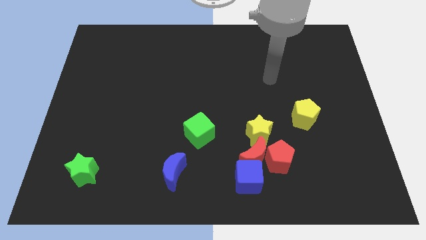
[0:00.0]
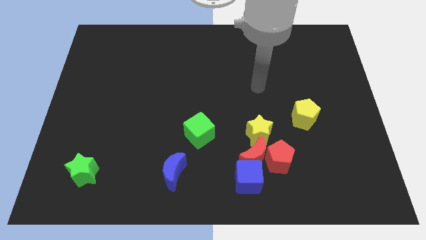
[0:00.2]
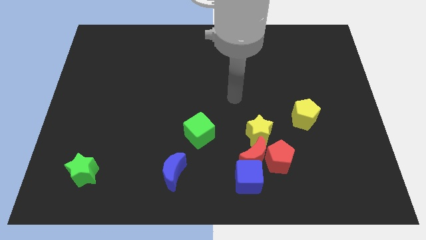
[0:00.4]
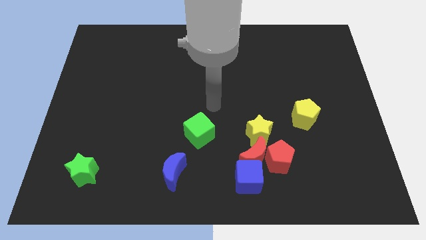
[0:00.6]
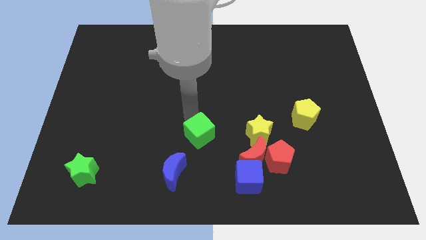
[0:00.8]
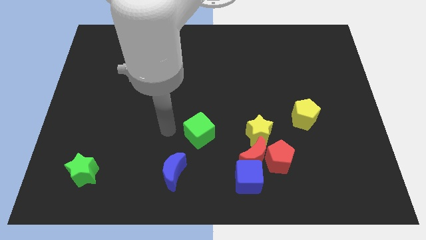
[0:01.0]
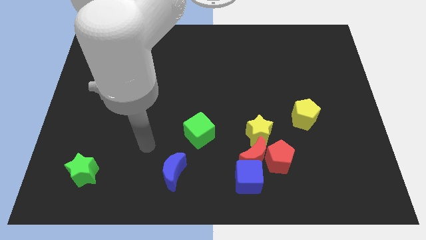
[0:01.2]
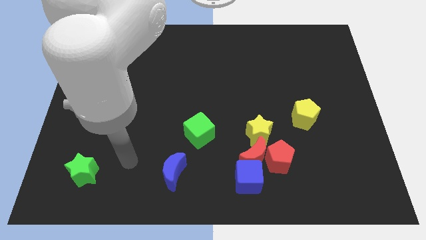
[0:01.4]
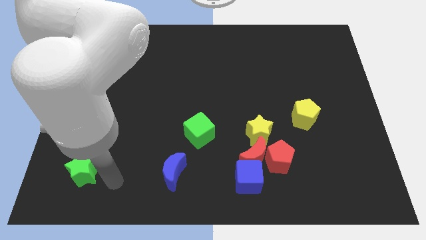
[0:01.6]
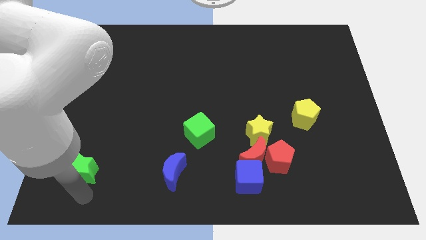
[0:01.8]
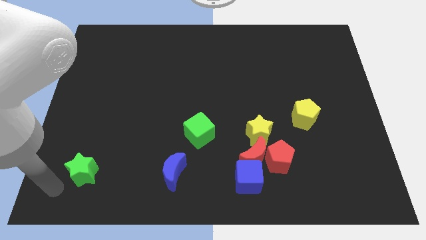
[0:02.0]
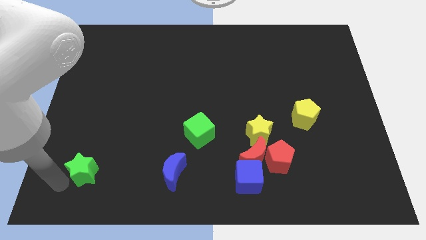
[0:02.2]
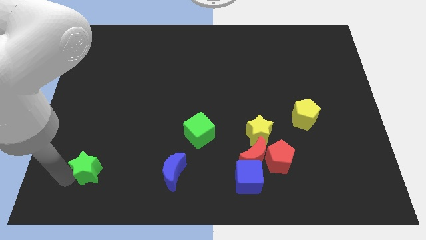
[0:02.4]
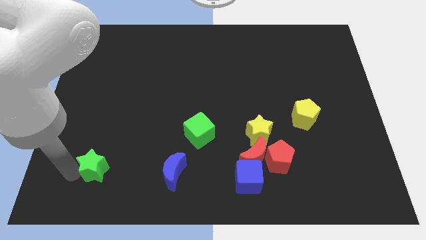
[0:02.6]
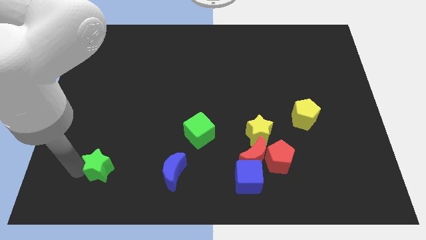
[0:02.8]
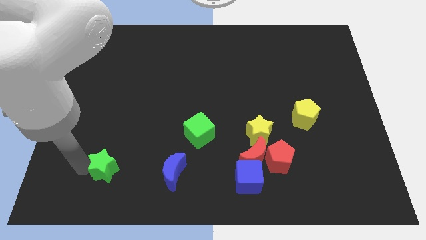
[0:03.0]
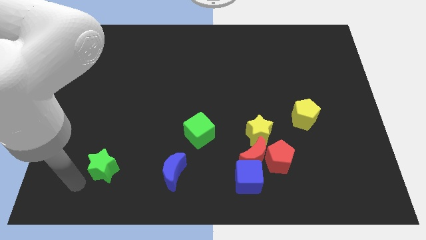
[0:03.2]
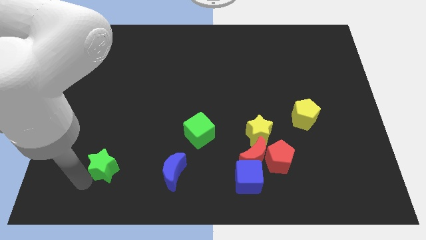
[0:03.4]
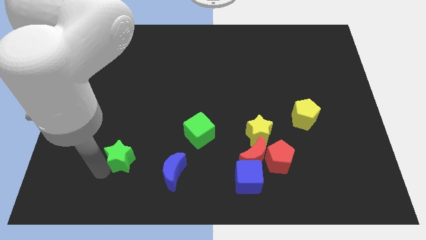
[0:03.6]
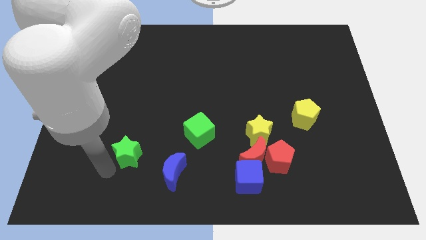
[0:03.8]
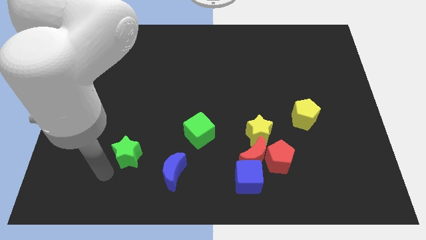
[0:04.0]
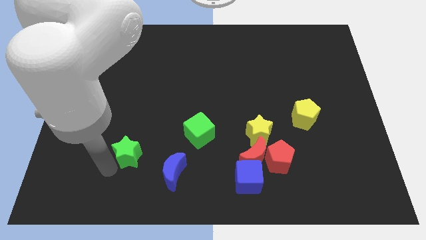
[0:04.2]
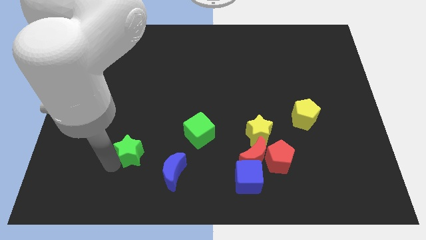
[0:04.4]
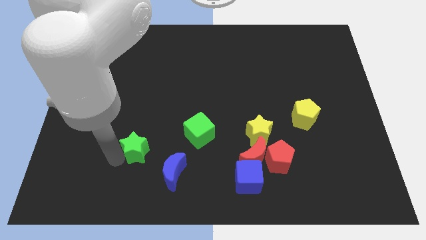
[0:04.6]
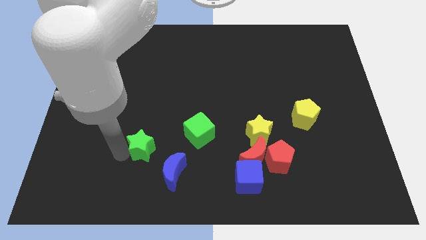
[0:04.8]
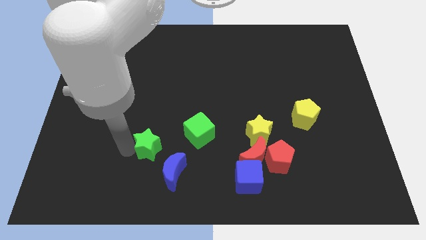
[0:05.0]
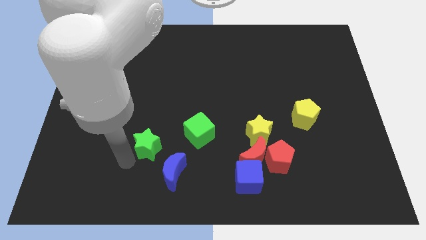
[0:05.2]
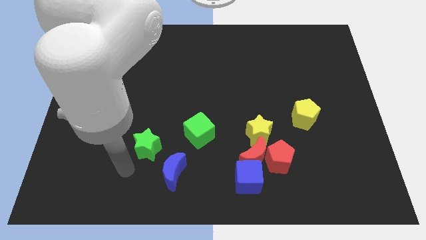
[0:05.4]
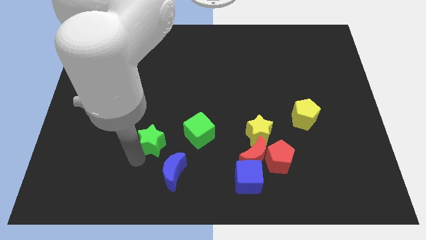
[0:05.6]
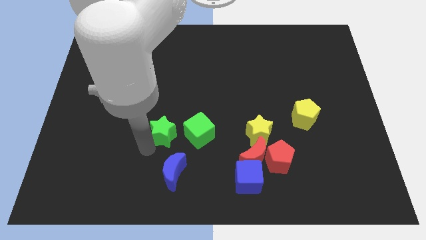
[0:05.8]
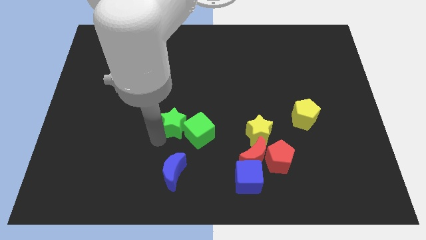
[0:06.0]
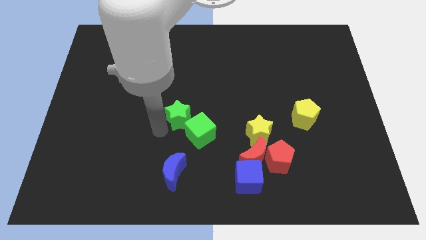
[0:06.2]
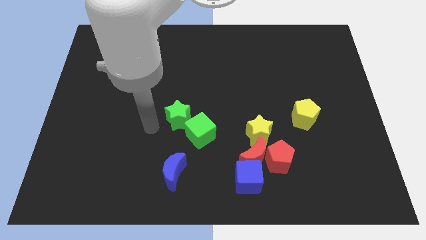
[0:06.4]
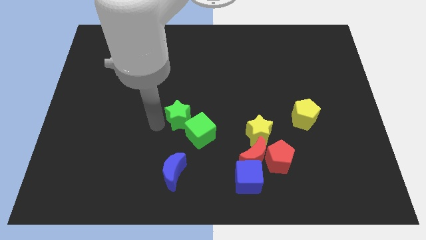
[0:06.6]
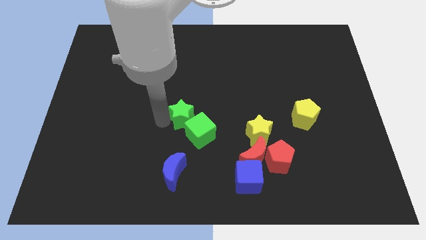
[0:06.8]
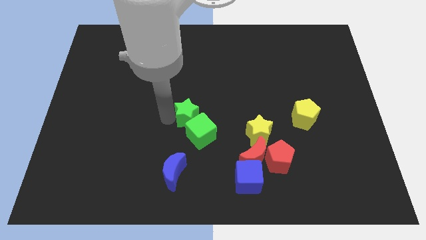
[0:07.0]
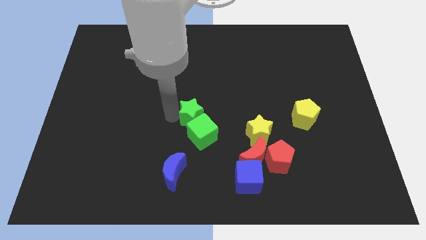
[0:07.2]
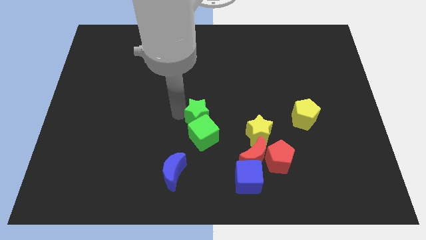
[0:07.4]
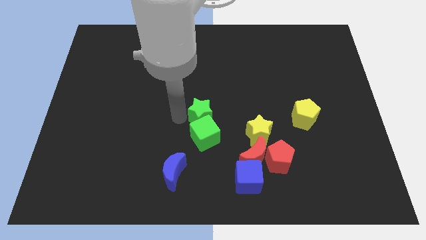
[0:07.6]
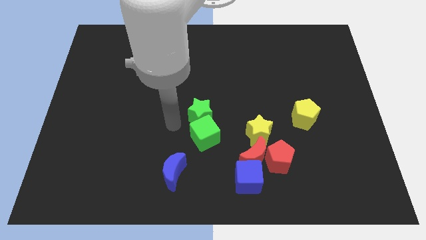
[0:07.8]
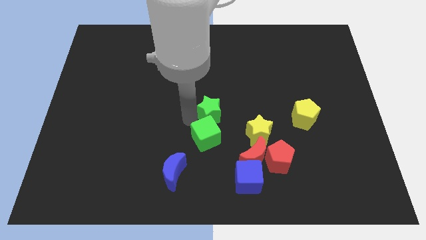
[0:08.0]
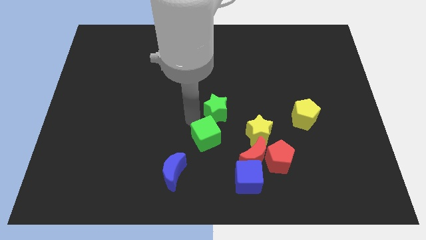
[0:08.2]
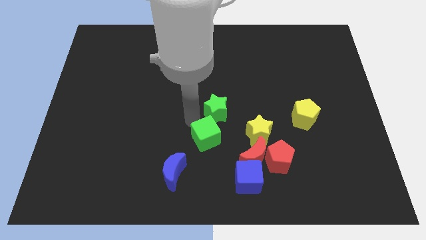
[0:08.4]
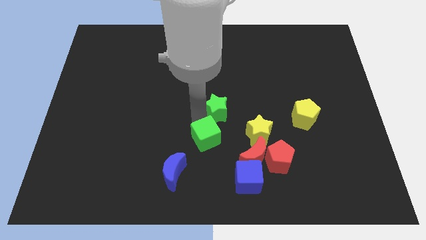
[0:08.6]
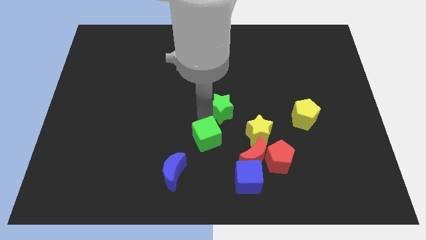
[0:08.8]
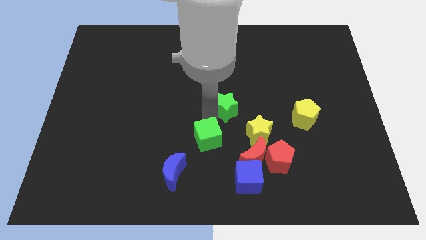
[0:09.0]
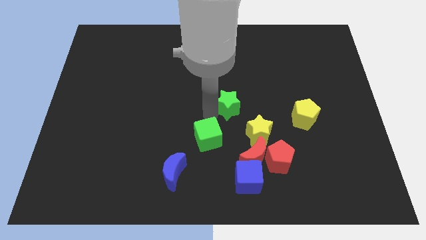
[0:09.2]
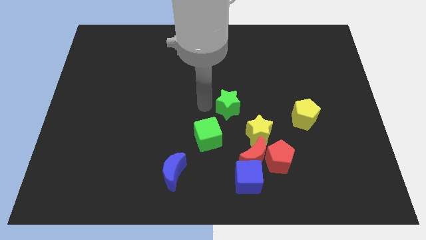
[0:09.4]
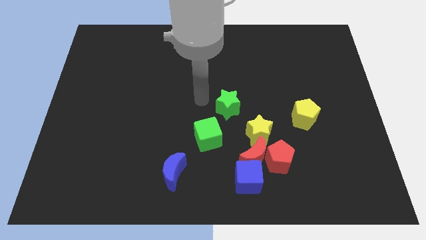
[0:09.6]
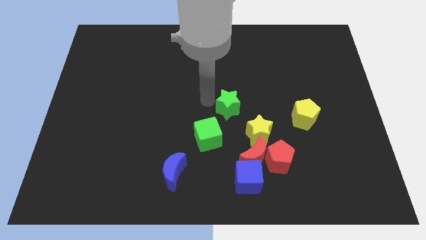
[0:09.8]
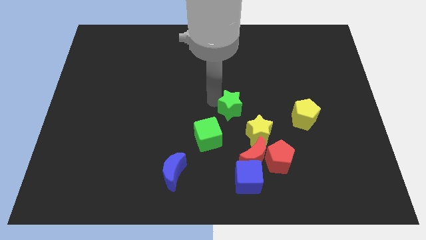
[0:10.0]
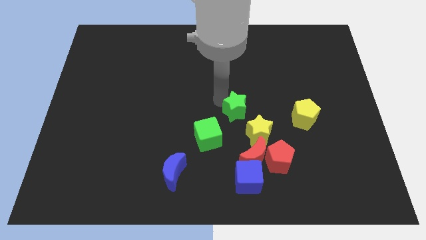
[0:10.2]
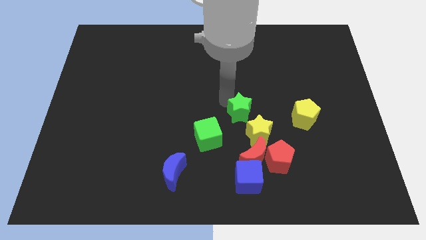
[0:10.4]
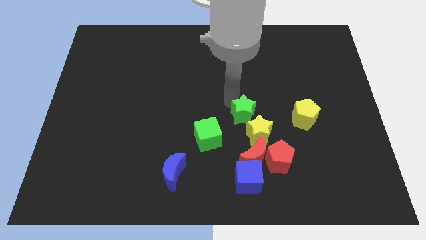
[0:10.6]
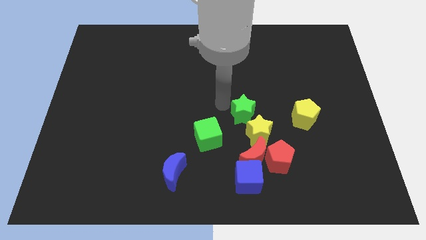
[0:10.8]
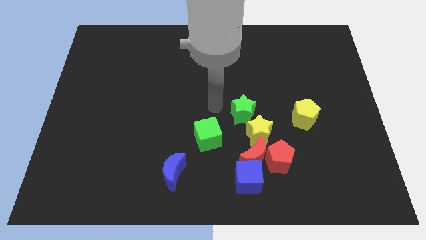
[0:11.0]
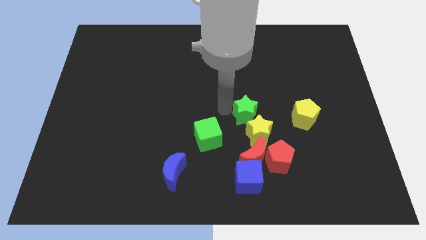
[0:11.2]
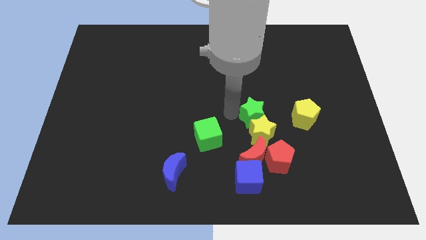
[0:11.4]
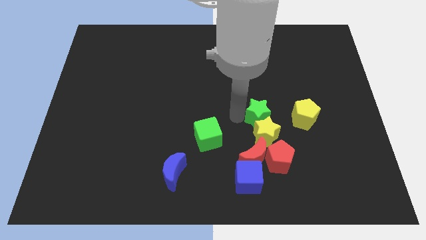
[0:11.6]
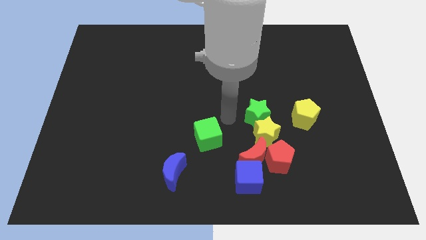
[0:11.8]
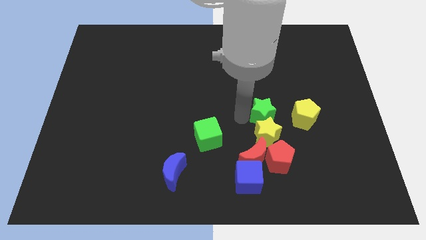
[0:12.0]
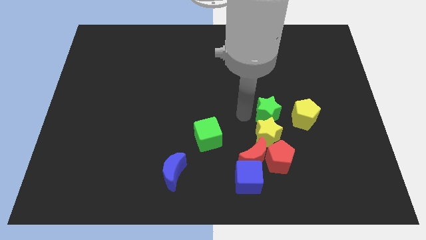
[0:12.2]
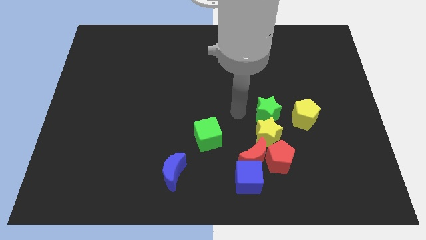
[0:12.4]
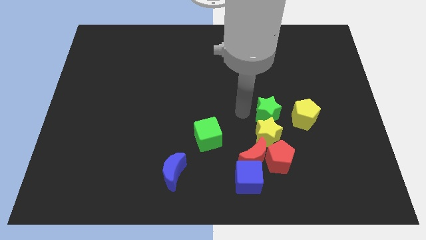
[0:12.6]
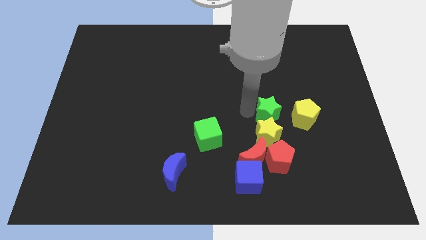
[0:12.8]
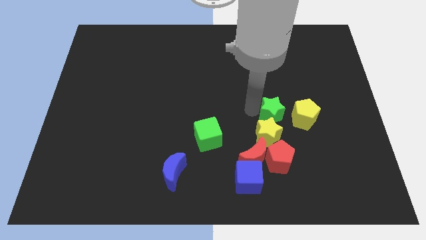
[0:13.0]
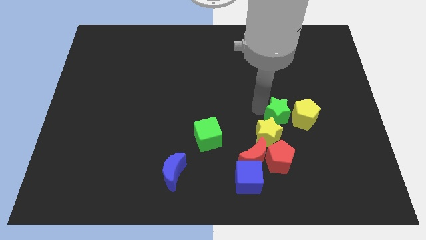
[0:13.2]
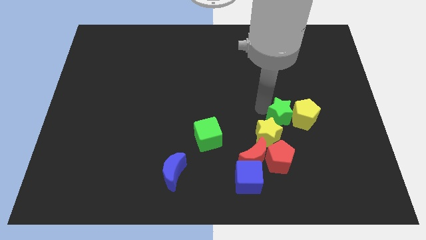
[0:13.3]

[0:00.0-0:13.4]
move the green star close to the yellow pentagon

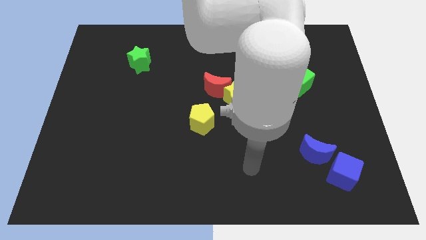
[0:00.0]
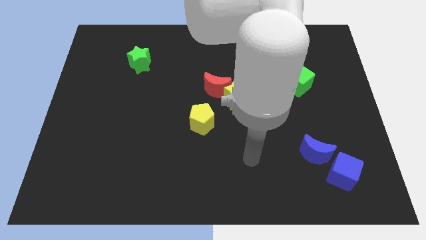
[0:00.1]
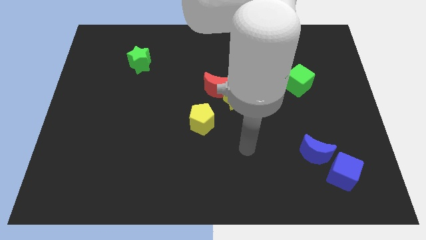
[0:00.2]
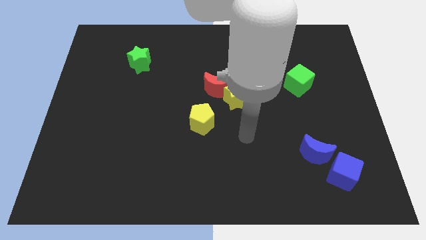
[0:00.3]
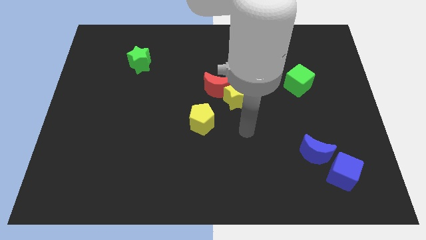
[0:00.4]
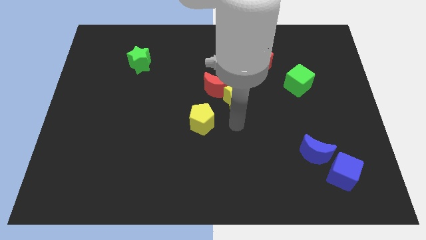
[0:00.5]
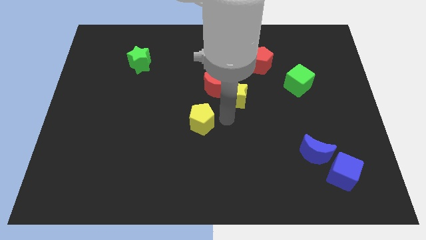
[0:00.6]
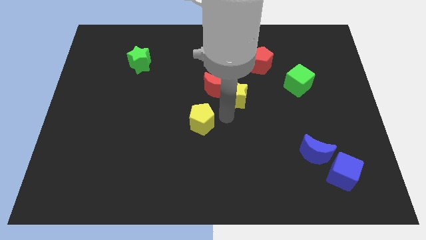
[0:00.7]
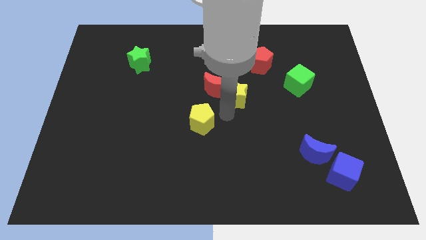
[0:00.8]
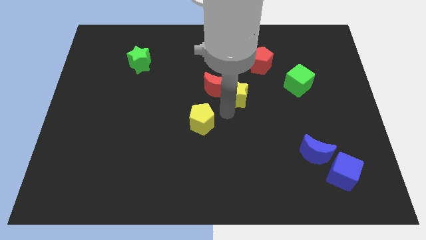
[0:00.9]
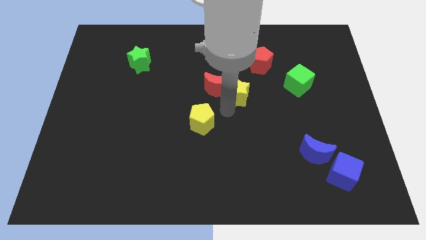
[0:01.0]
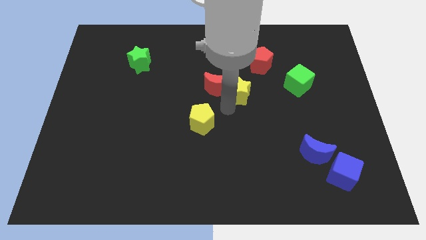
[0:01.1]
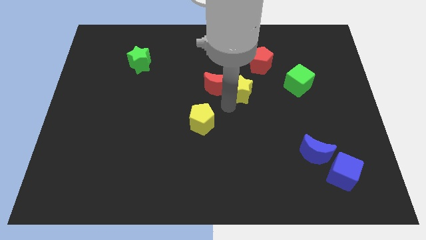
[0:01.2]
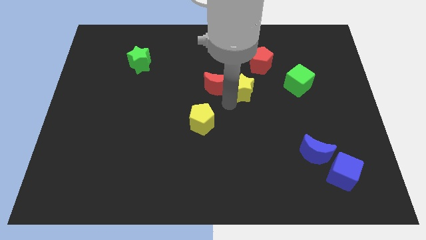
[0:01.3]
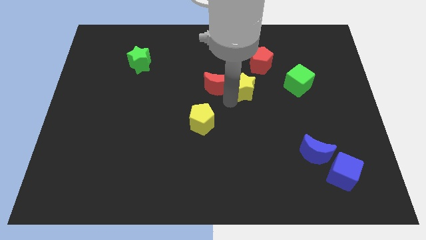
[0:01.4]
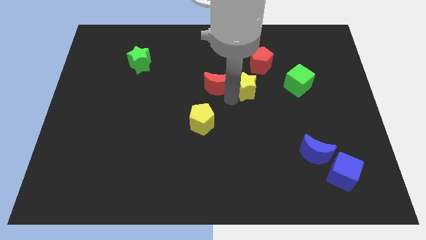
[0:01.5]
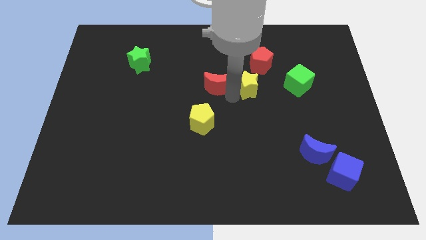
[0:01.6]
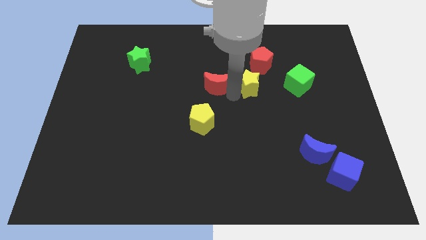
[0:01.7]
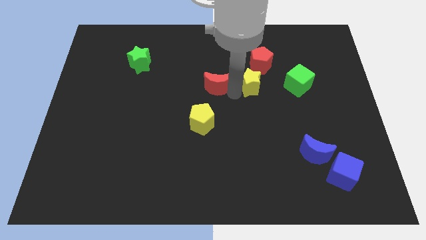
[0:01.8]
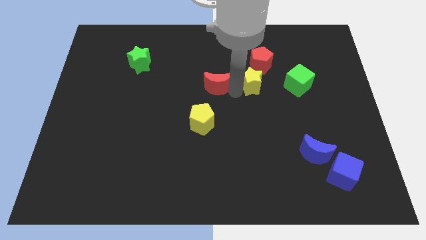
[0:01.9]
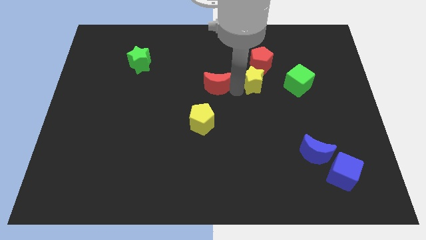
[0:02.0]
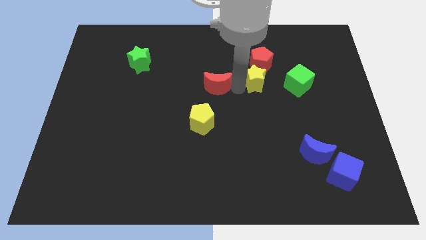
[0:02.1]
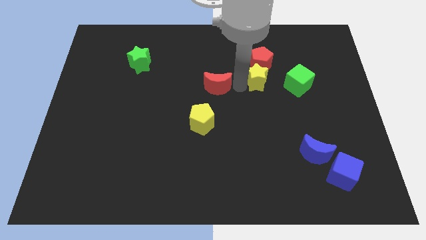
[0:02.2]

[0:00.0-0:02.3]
move the yellow star close to the red pentagon
